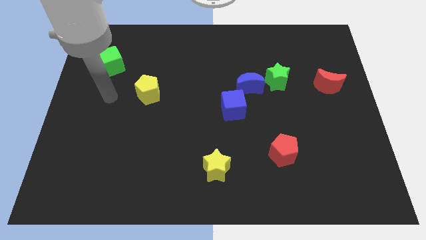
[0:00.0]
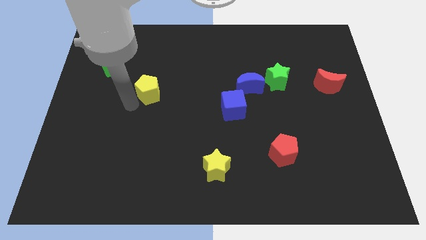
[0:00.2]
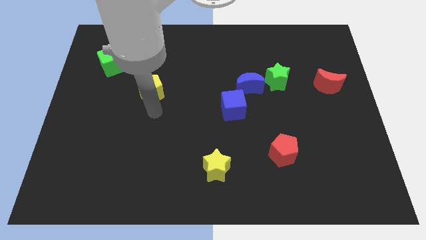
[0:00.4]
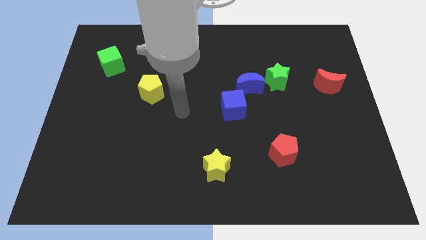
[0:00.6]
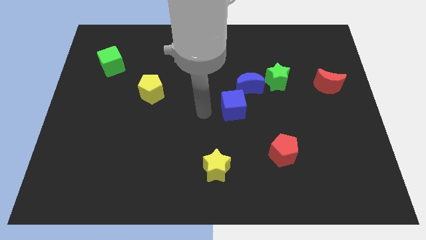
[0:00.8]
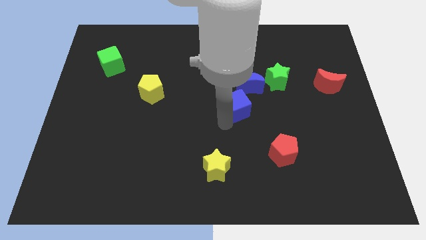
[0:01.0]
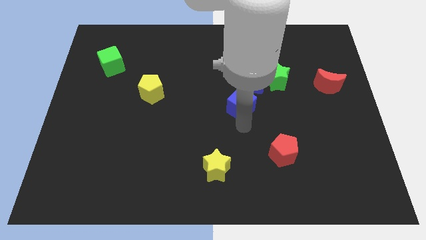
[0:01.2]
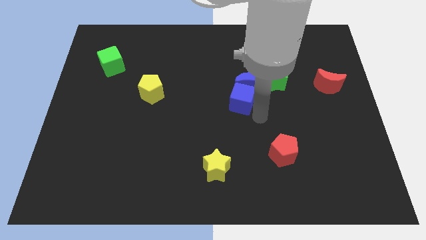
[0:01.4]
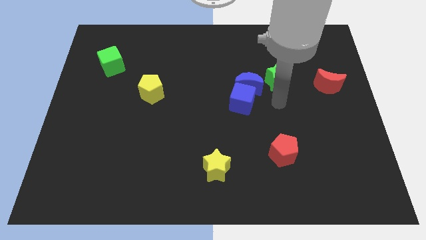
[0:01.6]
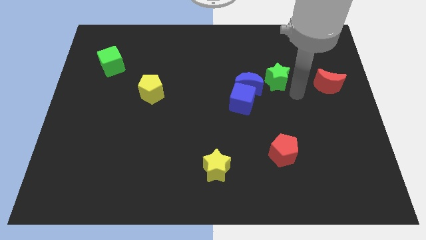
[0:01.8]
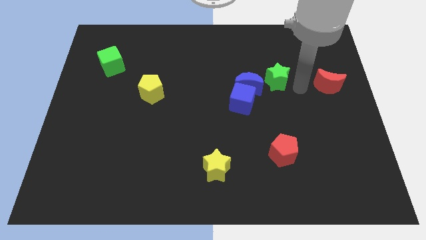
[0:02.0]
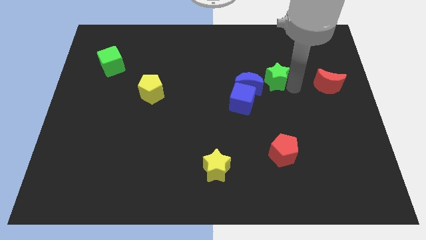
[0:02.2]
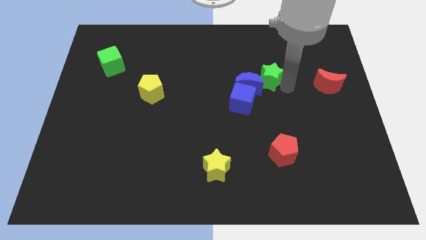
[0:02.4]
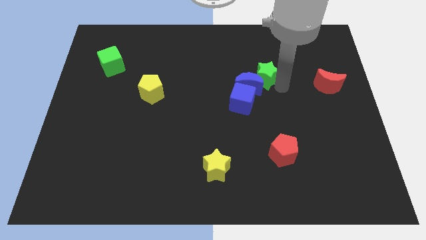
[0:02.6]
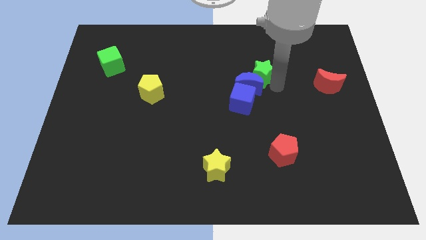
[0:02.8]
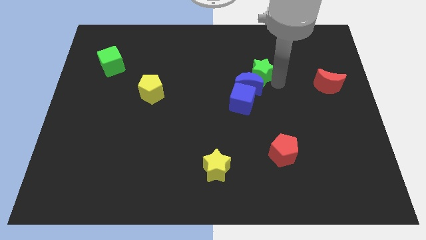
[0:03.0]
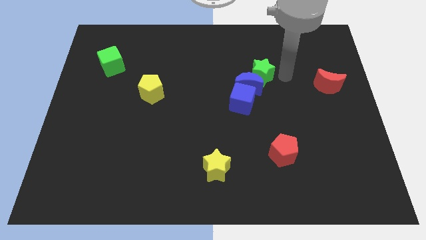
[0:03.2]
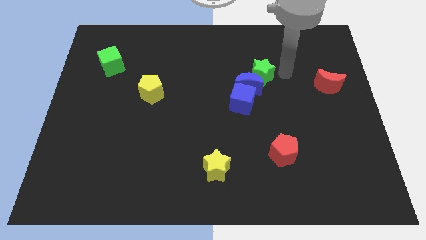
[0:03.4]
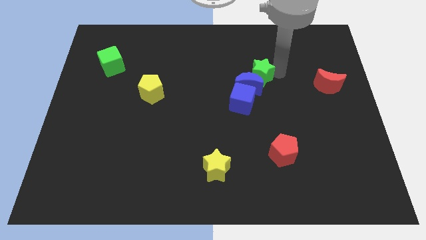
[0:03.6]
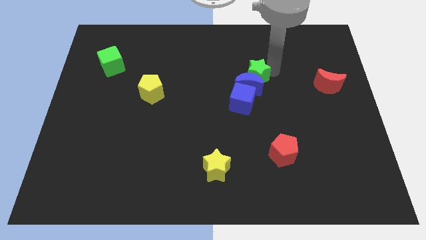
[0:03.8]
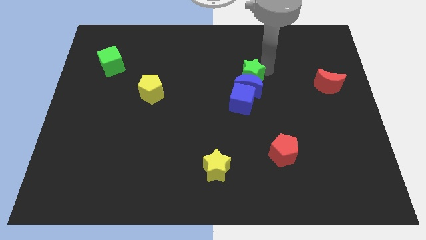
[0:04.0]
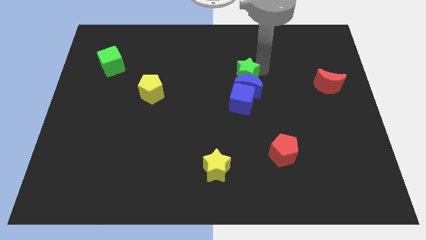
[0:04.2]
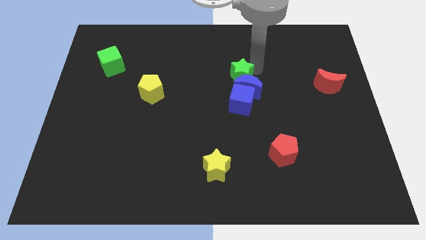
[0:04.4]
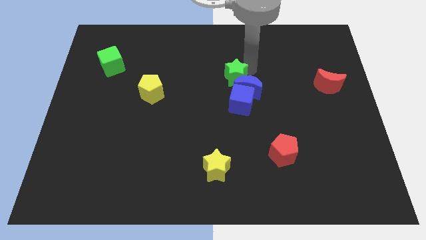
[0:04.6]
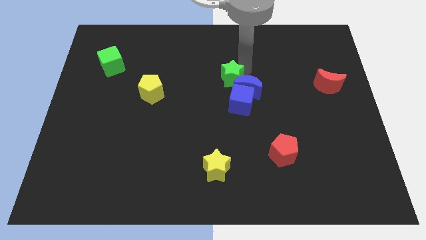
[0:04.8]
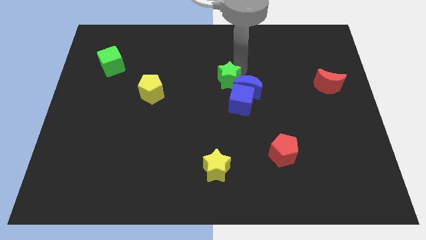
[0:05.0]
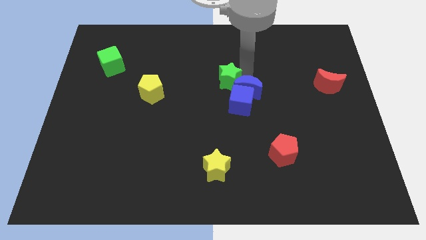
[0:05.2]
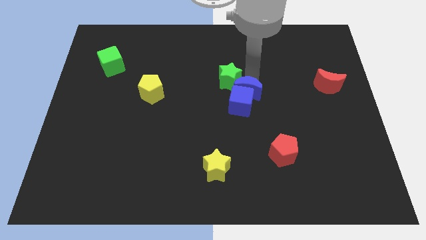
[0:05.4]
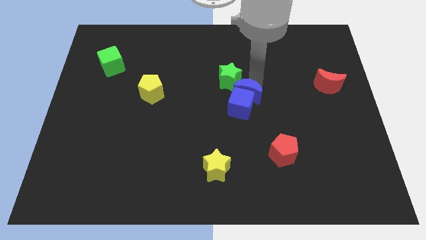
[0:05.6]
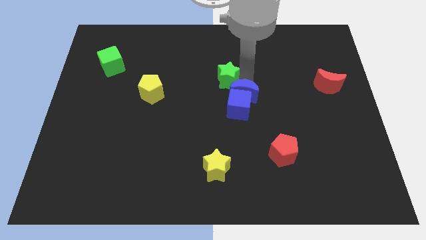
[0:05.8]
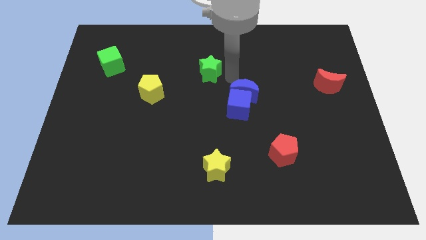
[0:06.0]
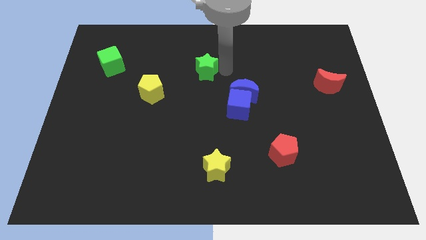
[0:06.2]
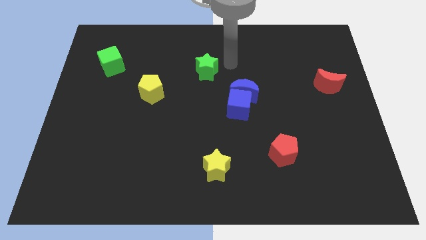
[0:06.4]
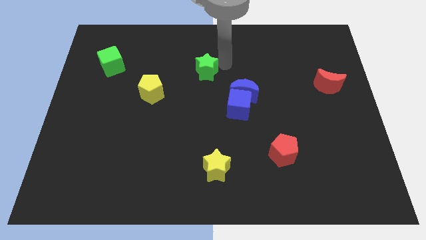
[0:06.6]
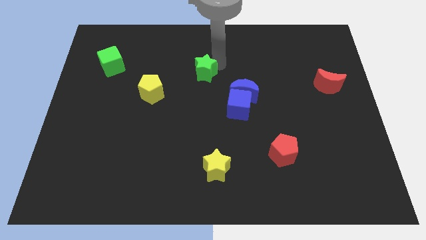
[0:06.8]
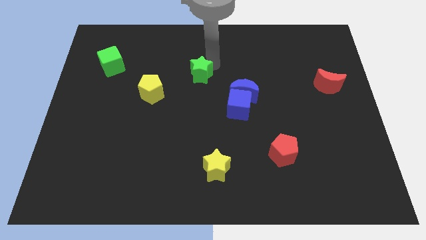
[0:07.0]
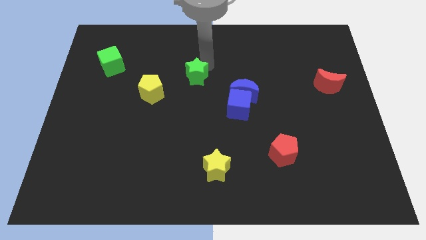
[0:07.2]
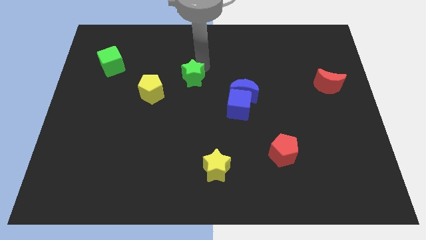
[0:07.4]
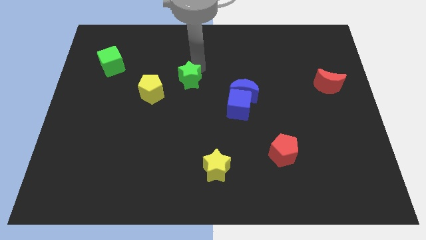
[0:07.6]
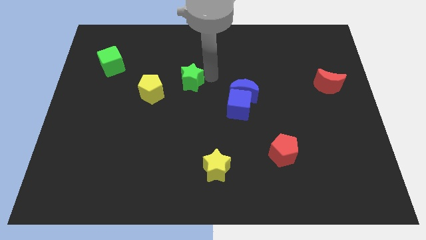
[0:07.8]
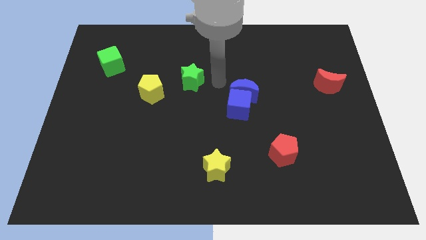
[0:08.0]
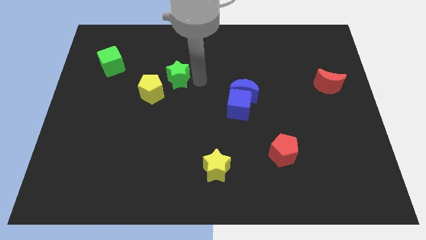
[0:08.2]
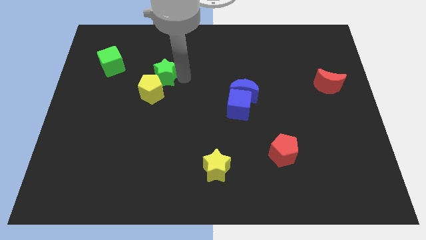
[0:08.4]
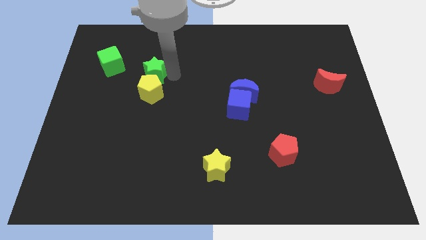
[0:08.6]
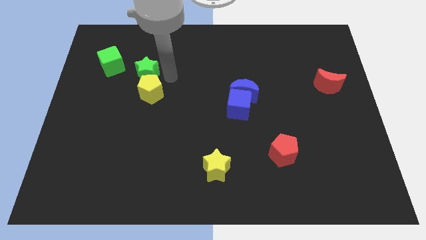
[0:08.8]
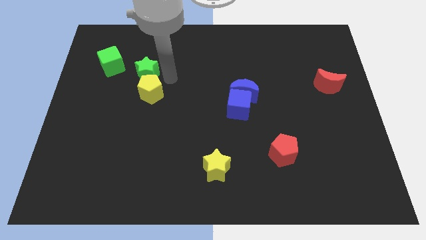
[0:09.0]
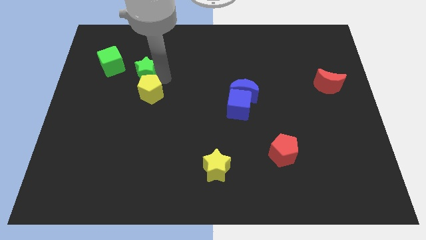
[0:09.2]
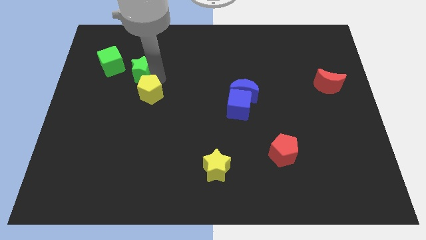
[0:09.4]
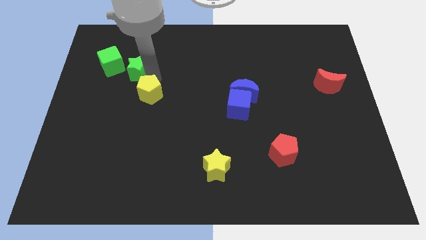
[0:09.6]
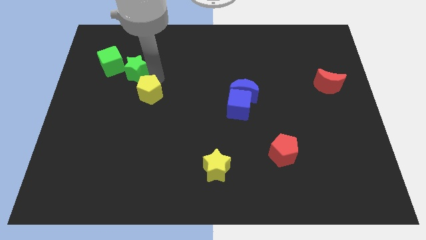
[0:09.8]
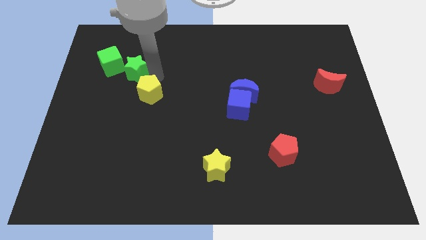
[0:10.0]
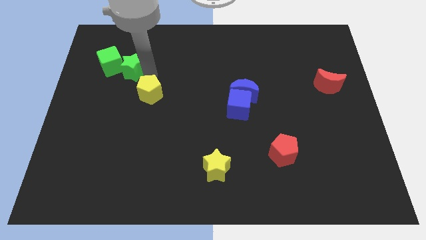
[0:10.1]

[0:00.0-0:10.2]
move the green star next to the green cube

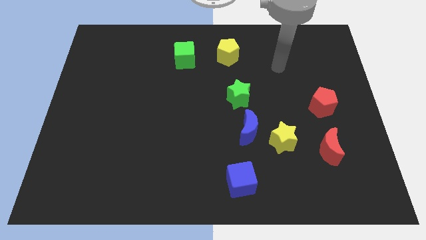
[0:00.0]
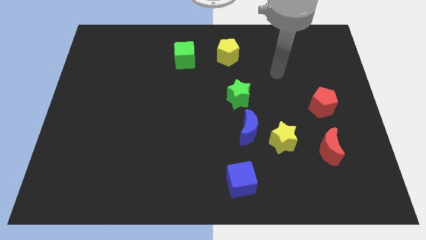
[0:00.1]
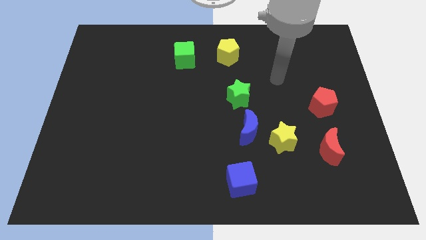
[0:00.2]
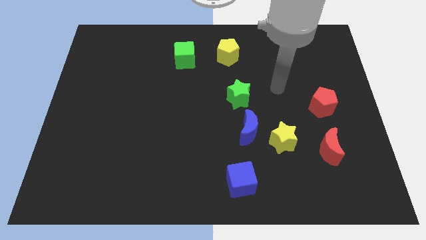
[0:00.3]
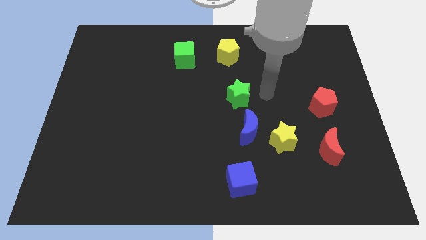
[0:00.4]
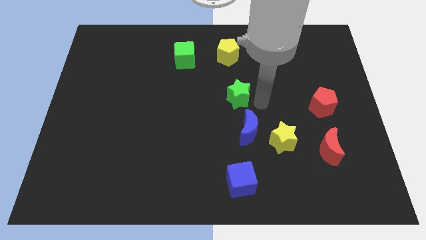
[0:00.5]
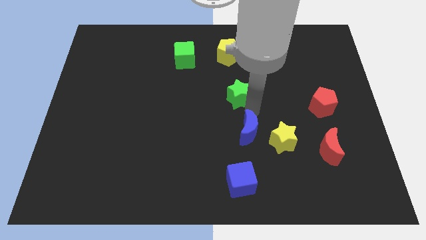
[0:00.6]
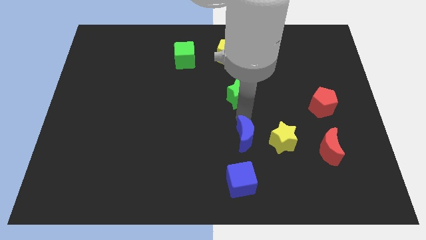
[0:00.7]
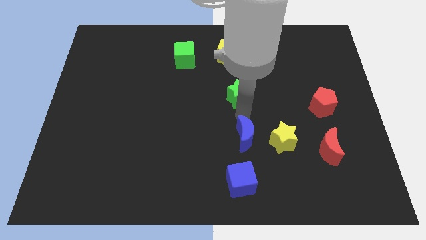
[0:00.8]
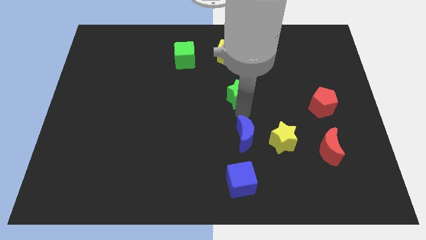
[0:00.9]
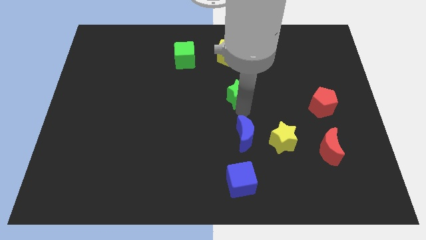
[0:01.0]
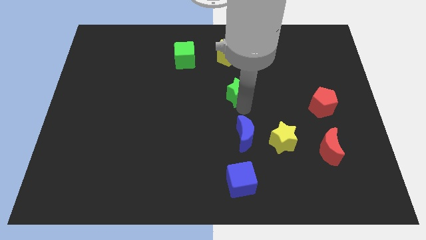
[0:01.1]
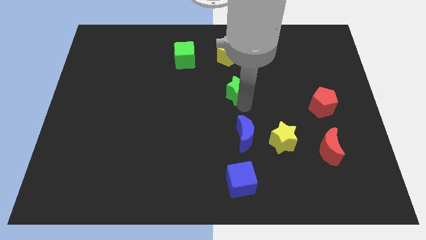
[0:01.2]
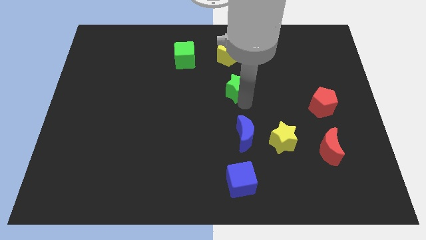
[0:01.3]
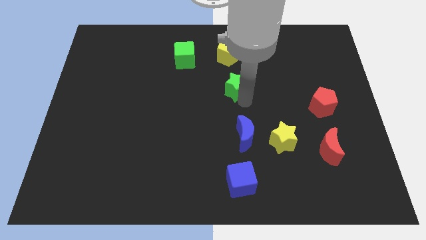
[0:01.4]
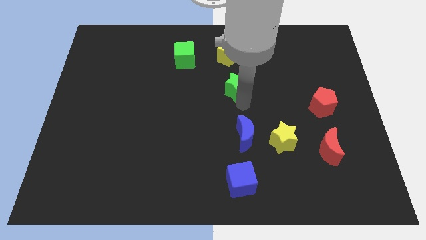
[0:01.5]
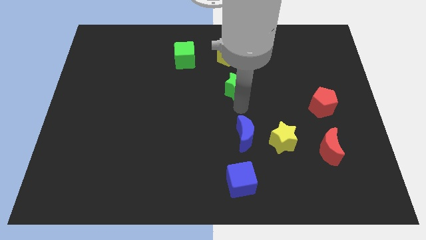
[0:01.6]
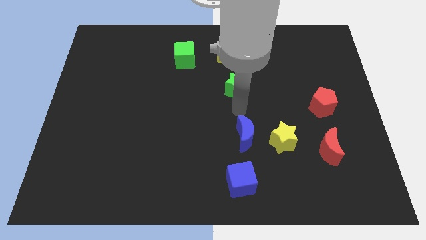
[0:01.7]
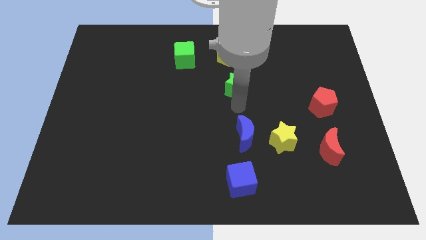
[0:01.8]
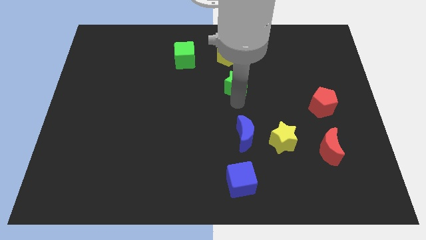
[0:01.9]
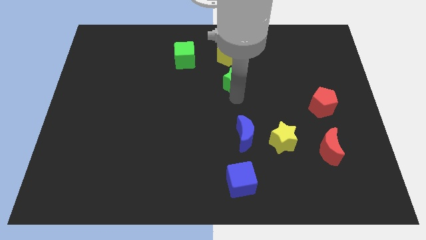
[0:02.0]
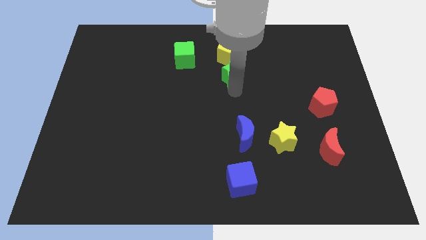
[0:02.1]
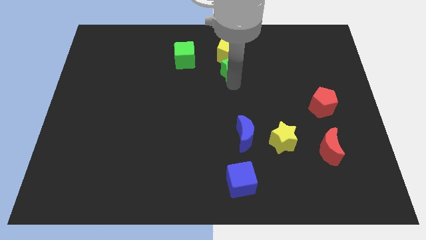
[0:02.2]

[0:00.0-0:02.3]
move the green star next to the yellow pentagon
